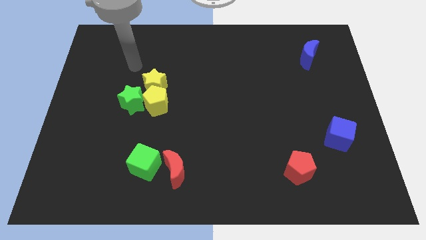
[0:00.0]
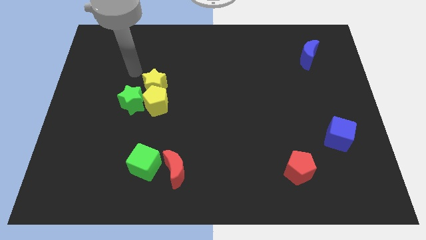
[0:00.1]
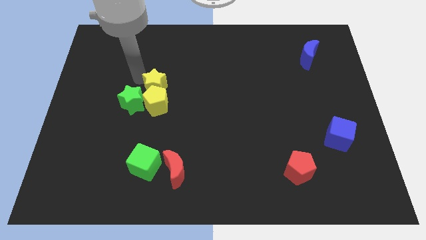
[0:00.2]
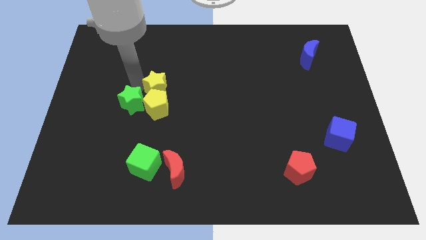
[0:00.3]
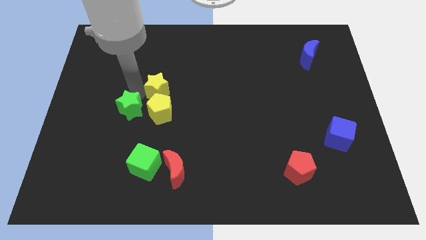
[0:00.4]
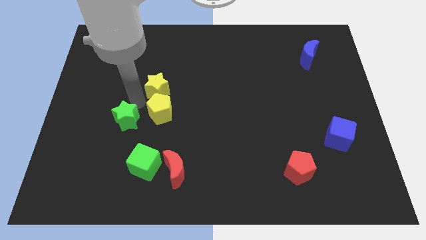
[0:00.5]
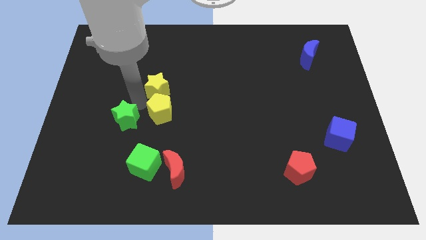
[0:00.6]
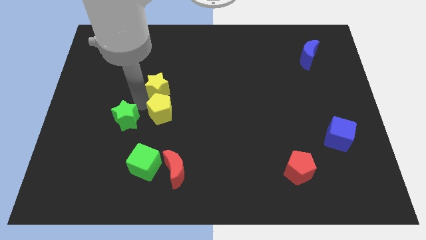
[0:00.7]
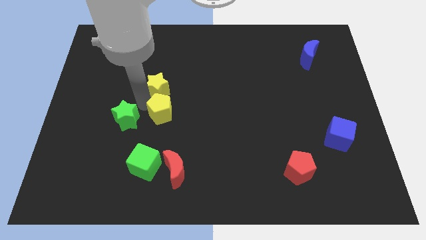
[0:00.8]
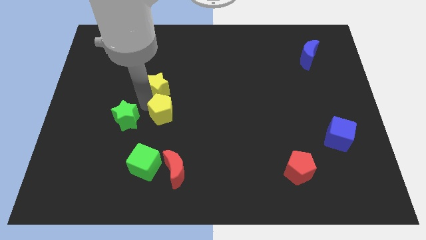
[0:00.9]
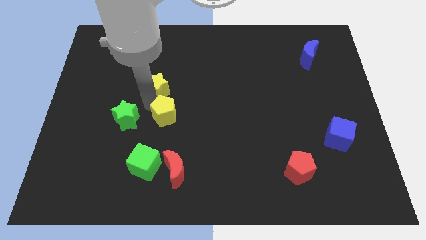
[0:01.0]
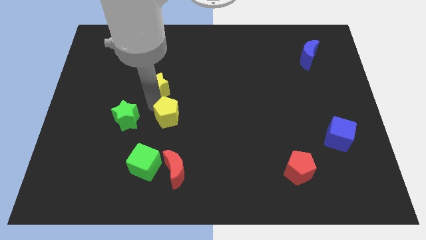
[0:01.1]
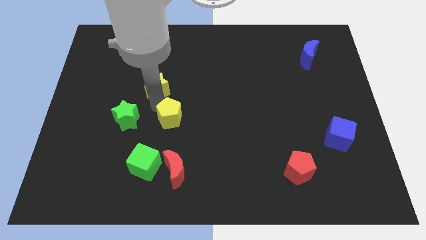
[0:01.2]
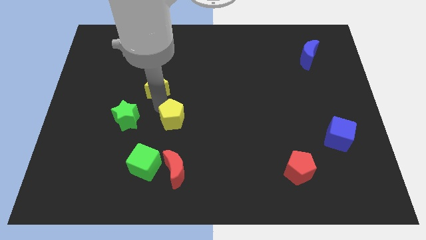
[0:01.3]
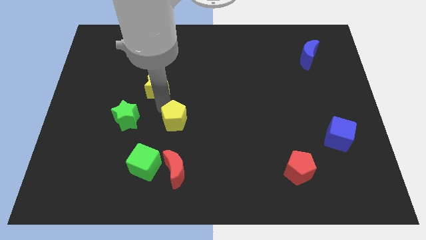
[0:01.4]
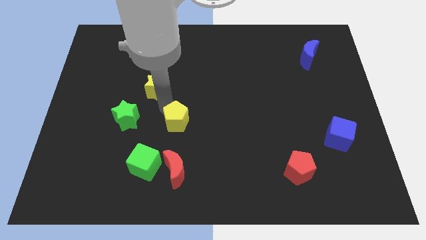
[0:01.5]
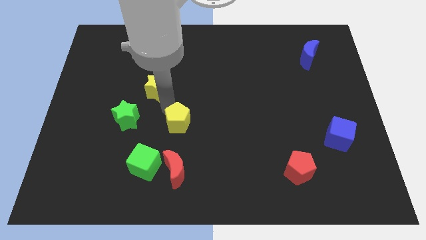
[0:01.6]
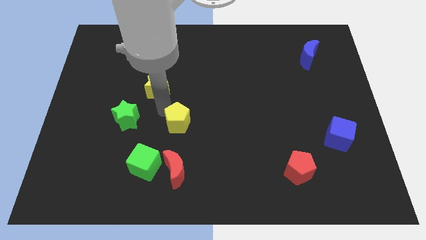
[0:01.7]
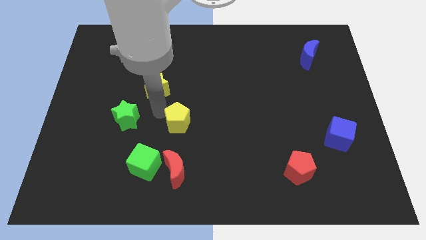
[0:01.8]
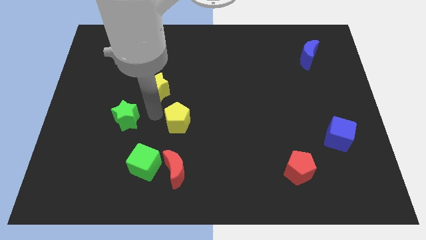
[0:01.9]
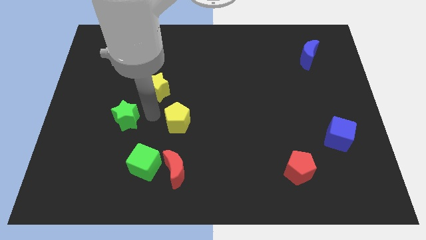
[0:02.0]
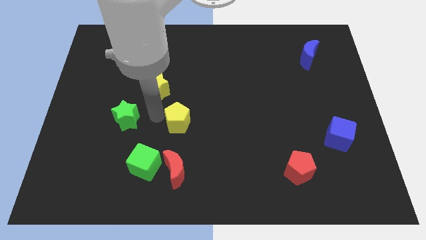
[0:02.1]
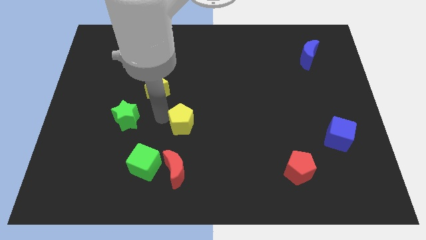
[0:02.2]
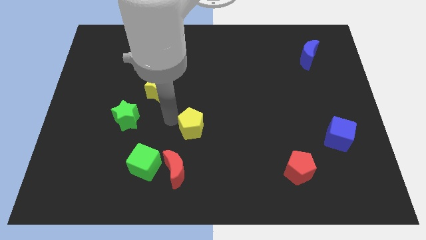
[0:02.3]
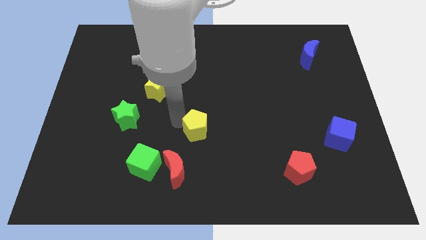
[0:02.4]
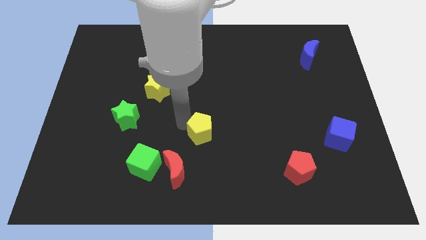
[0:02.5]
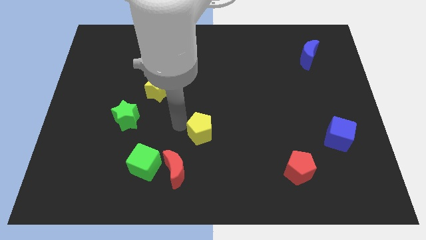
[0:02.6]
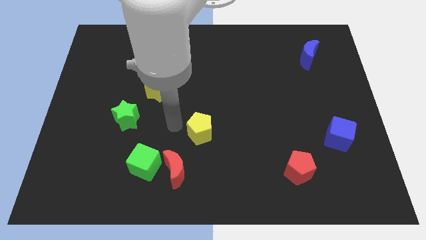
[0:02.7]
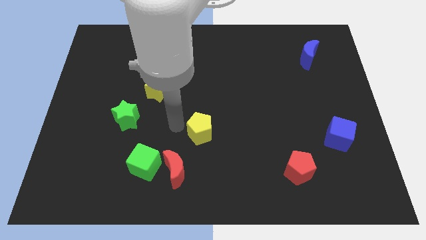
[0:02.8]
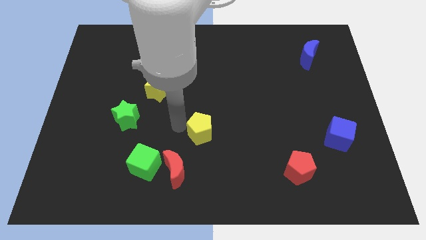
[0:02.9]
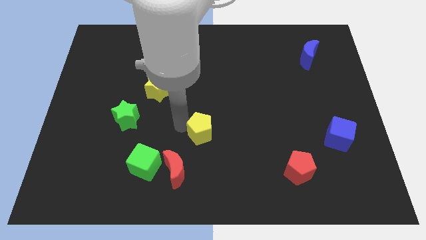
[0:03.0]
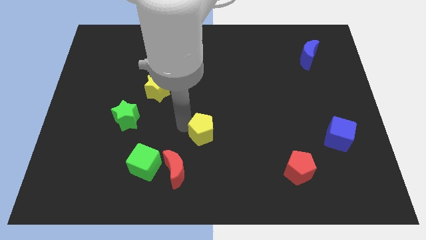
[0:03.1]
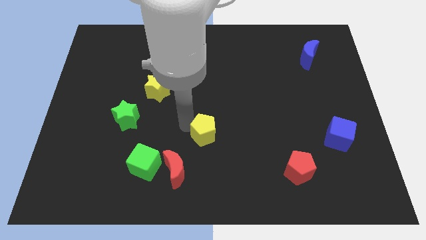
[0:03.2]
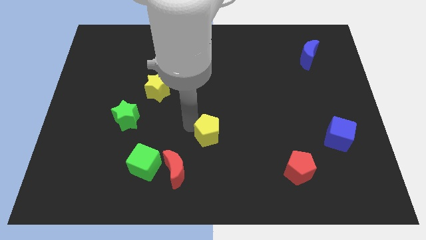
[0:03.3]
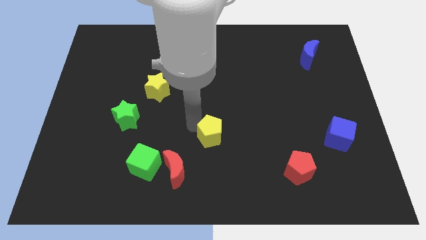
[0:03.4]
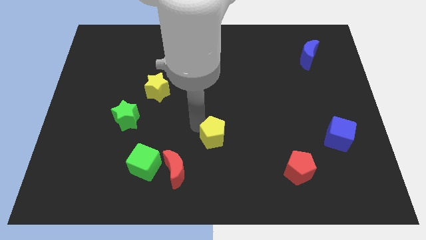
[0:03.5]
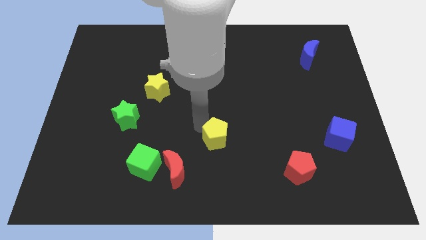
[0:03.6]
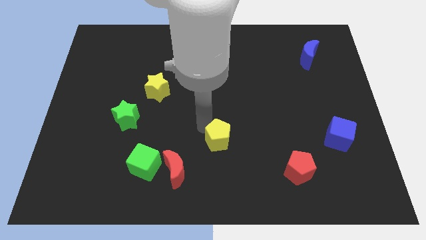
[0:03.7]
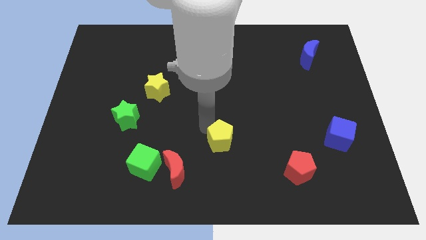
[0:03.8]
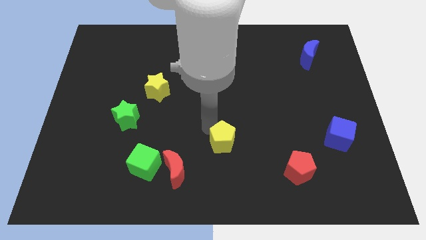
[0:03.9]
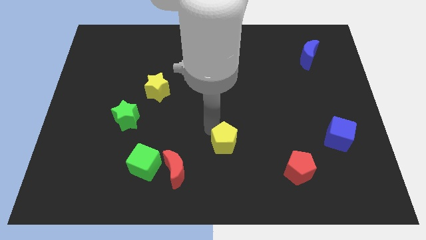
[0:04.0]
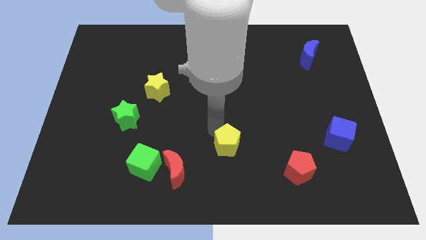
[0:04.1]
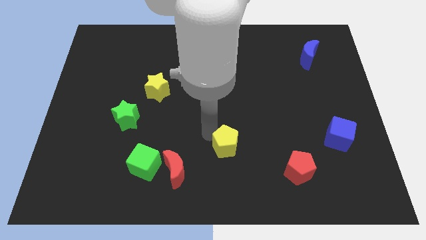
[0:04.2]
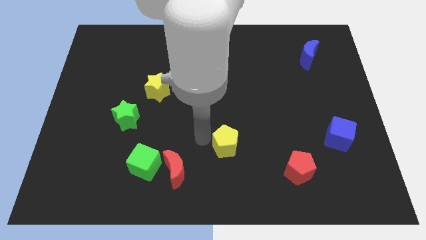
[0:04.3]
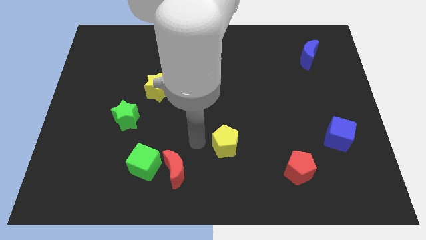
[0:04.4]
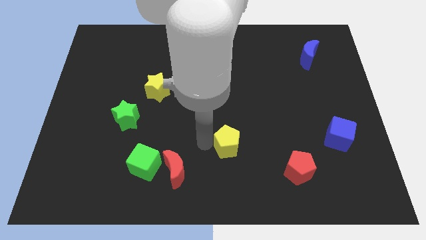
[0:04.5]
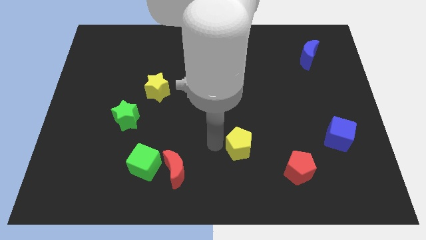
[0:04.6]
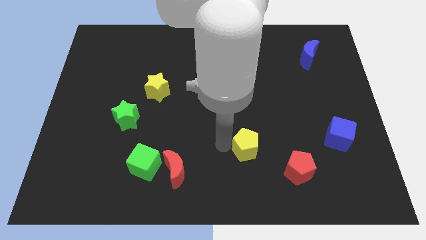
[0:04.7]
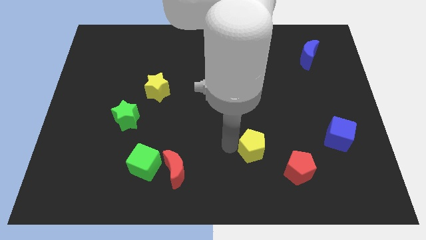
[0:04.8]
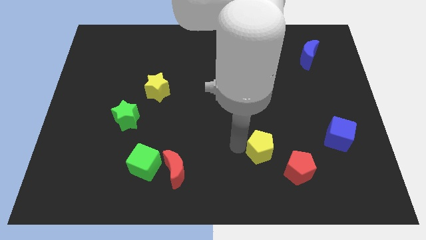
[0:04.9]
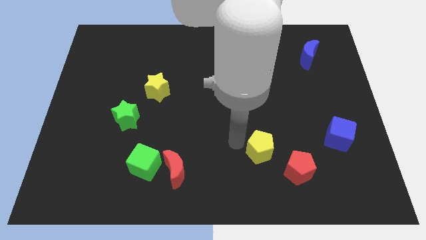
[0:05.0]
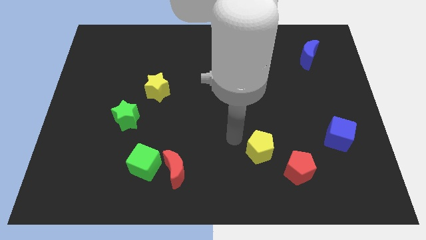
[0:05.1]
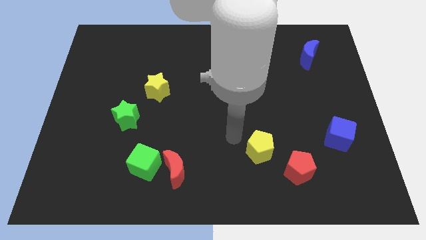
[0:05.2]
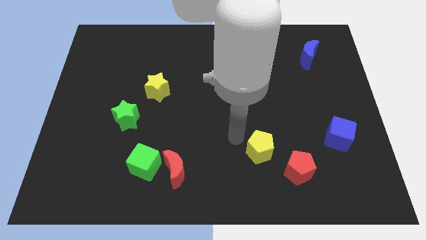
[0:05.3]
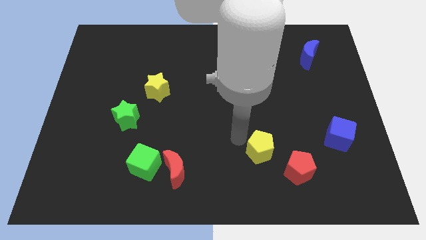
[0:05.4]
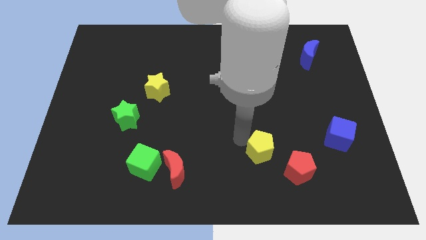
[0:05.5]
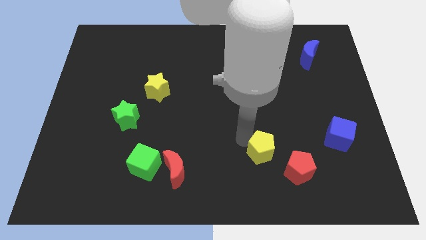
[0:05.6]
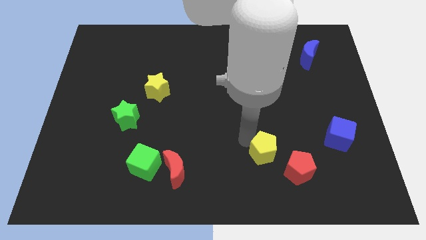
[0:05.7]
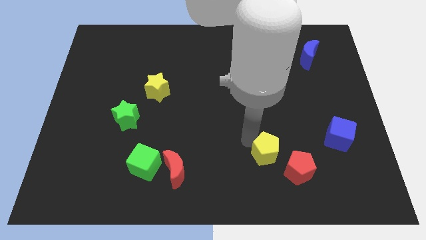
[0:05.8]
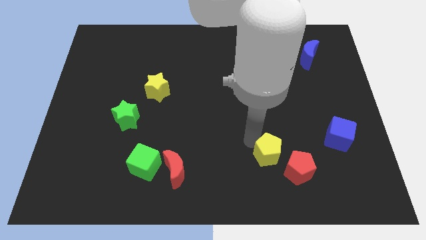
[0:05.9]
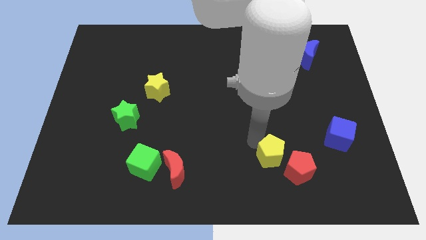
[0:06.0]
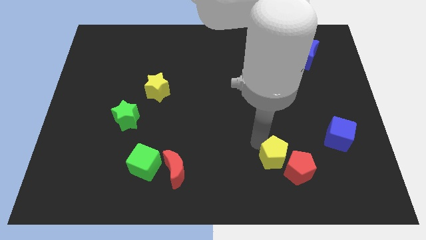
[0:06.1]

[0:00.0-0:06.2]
put the yellow pentagon towards the red pentagon

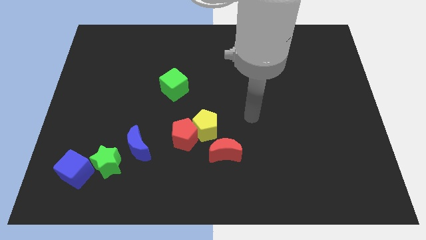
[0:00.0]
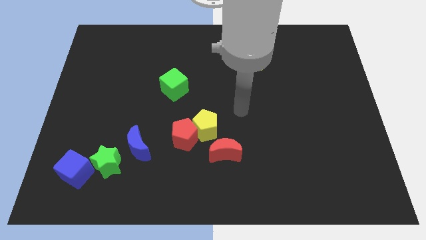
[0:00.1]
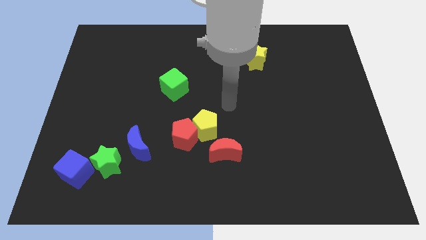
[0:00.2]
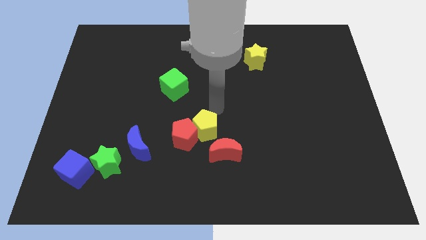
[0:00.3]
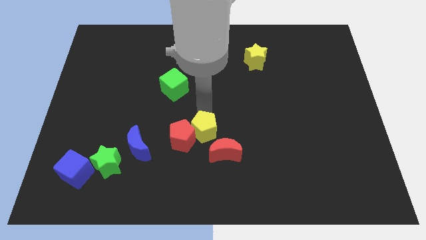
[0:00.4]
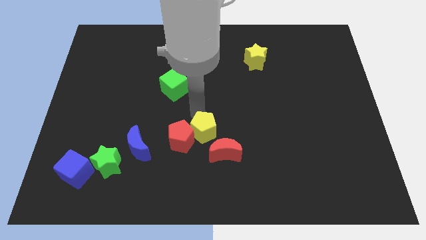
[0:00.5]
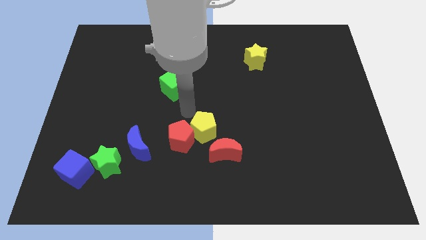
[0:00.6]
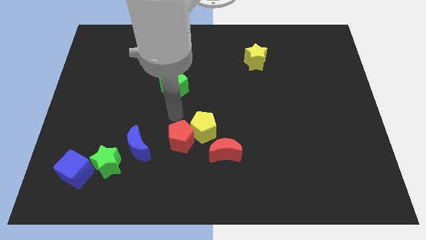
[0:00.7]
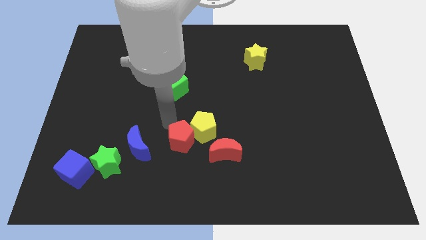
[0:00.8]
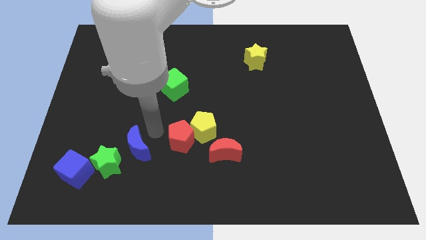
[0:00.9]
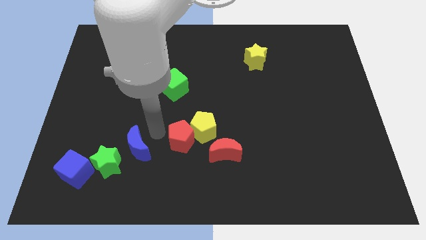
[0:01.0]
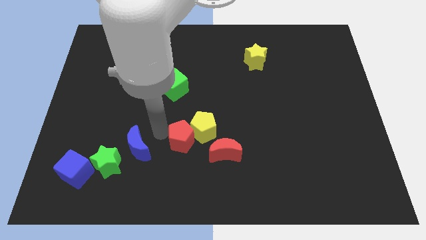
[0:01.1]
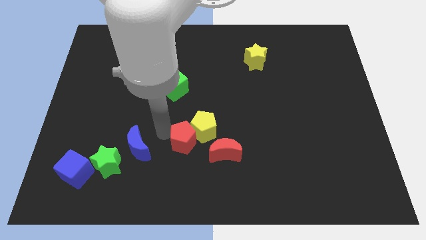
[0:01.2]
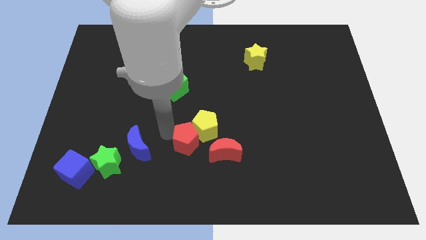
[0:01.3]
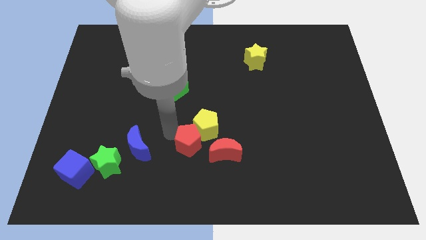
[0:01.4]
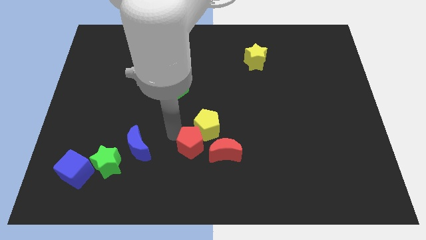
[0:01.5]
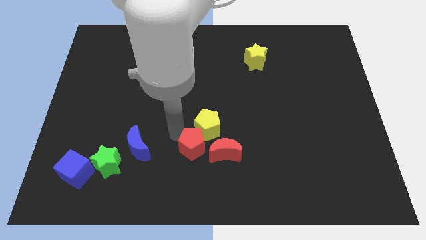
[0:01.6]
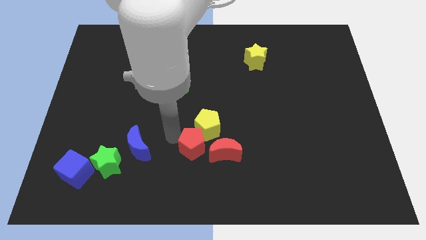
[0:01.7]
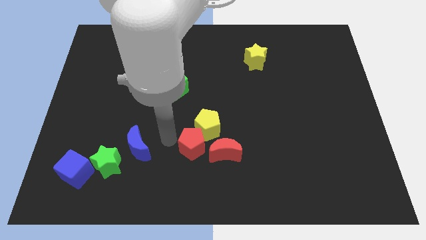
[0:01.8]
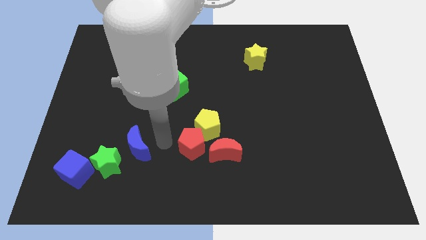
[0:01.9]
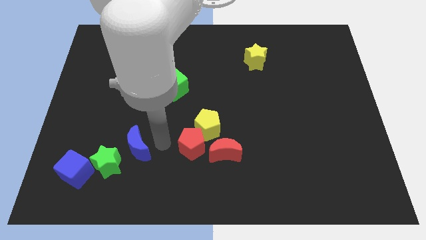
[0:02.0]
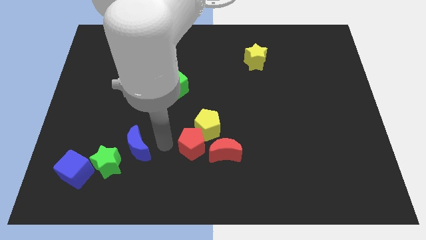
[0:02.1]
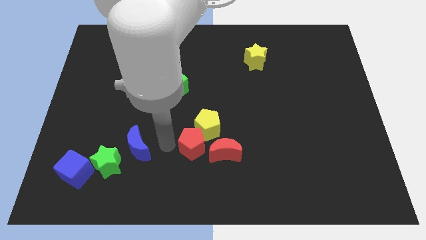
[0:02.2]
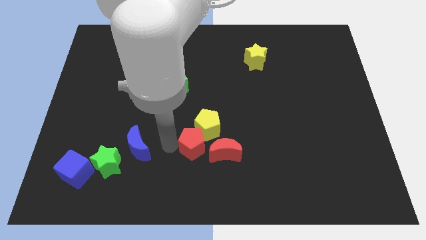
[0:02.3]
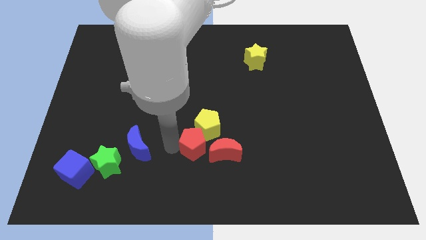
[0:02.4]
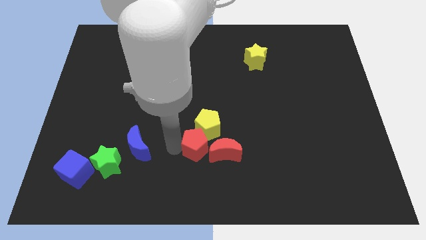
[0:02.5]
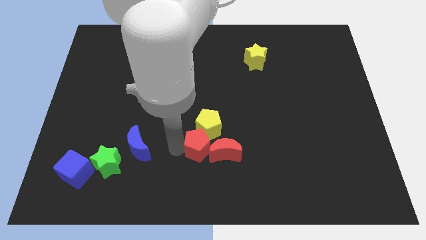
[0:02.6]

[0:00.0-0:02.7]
move the red pentagon next to the red moon
